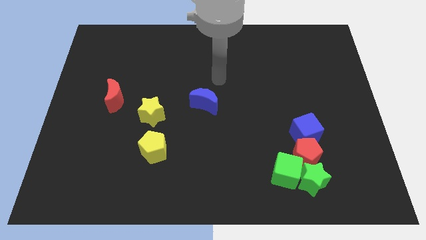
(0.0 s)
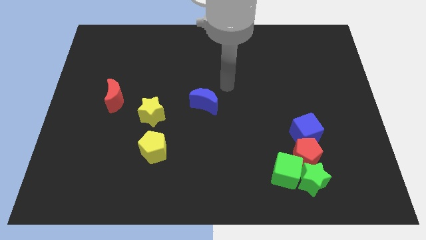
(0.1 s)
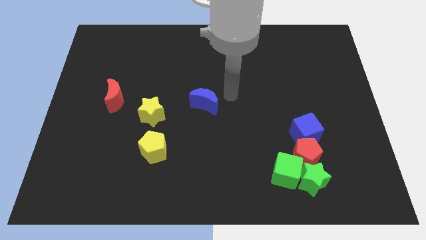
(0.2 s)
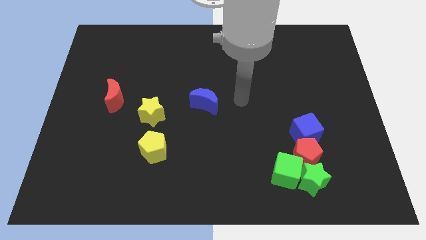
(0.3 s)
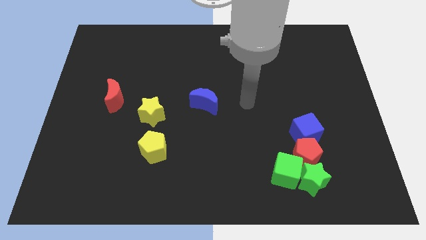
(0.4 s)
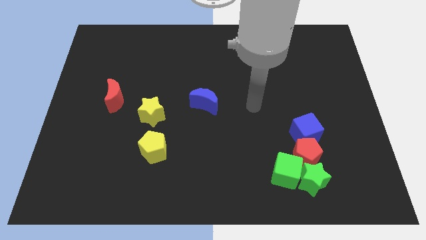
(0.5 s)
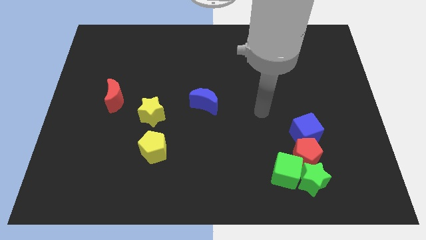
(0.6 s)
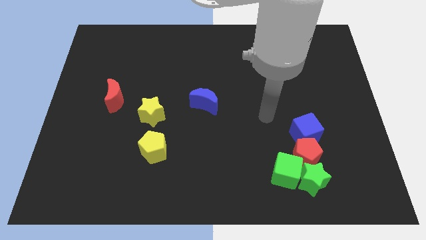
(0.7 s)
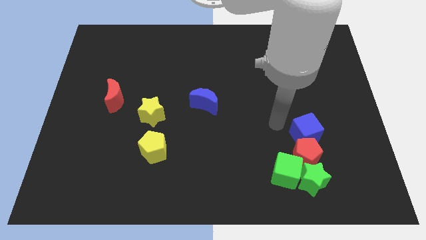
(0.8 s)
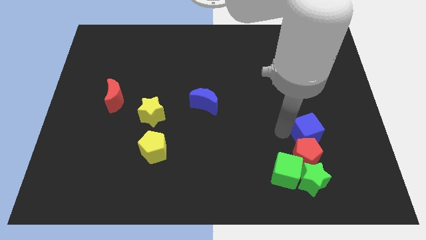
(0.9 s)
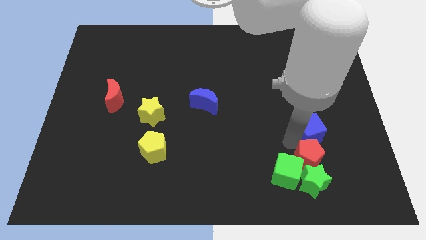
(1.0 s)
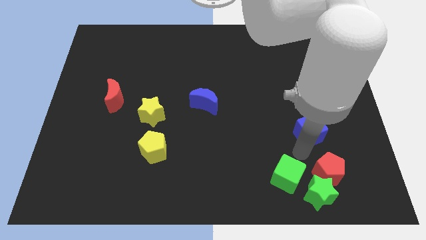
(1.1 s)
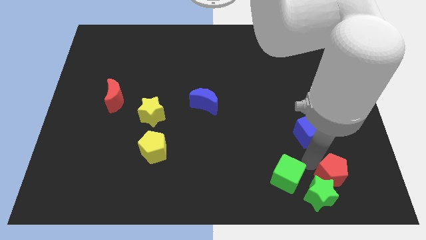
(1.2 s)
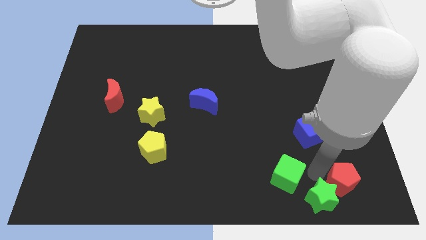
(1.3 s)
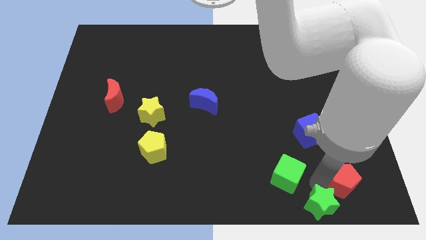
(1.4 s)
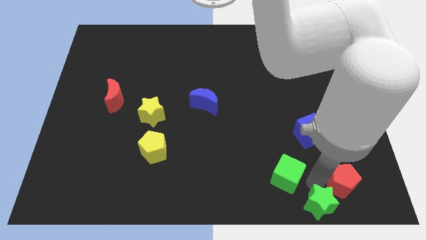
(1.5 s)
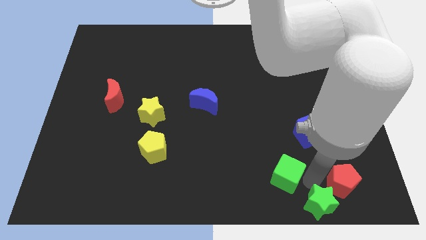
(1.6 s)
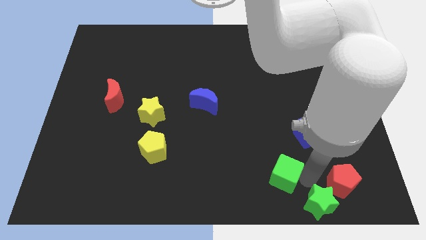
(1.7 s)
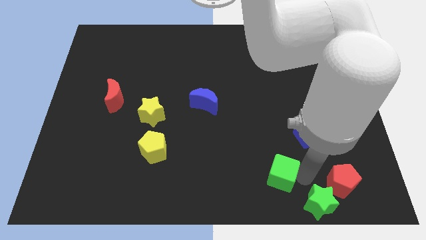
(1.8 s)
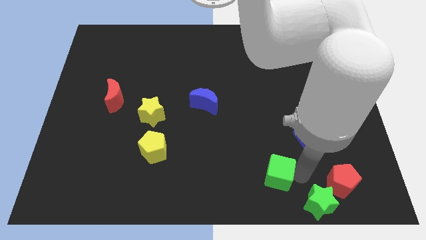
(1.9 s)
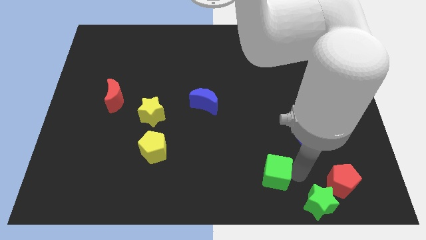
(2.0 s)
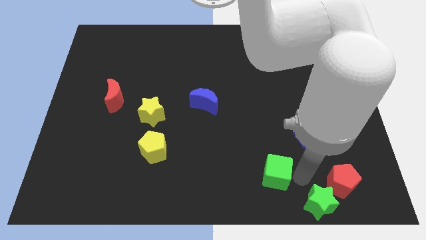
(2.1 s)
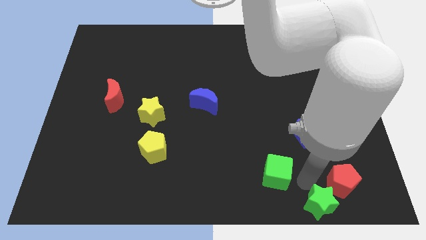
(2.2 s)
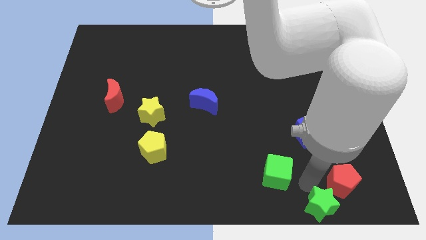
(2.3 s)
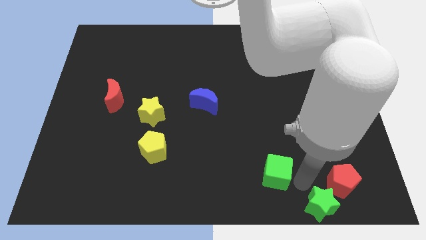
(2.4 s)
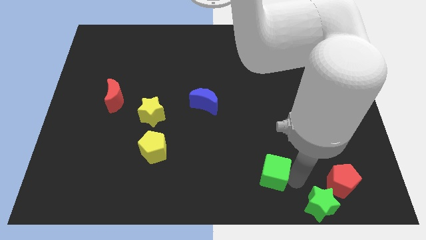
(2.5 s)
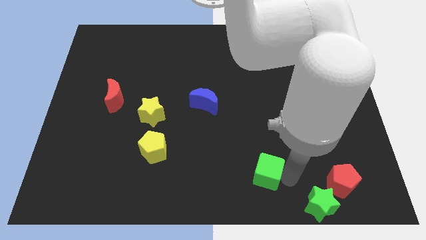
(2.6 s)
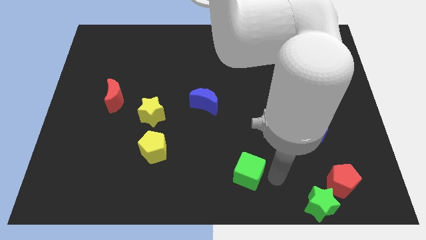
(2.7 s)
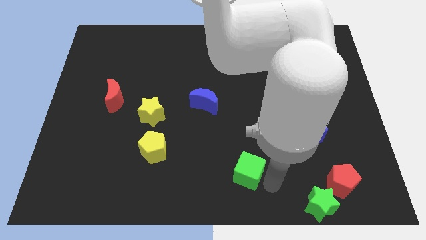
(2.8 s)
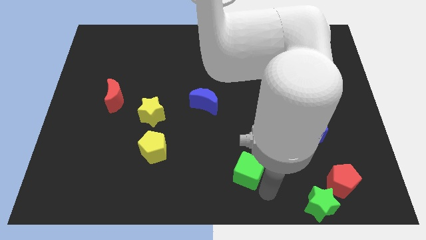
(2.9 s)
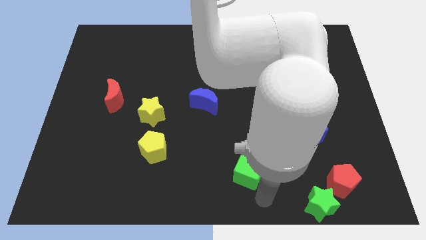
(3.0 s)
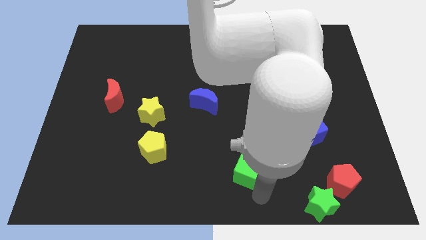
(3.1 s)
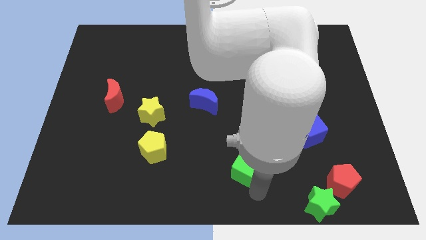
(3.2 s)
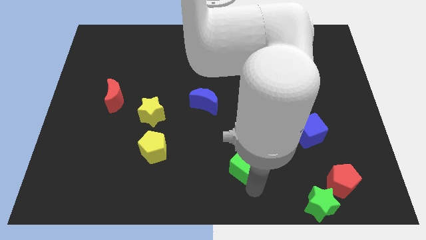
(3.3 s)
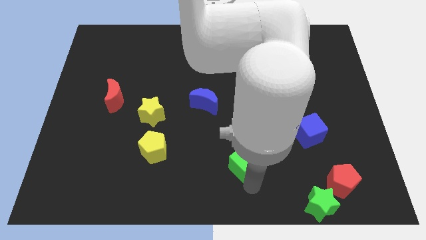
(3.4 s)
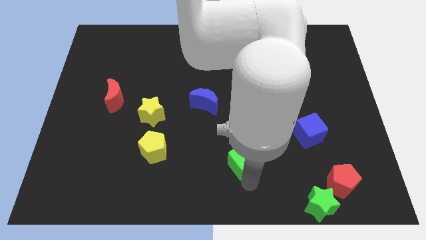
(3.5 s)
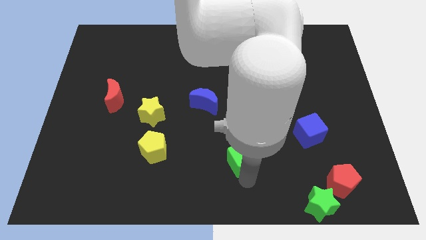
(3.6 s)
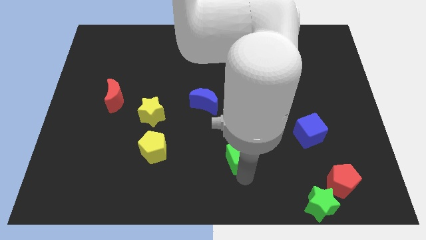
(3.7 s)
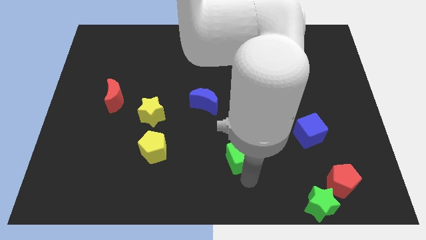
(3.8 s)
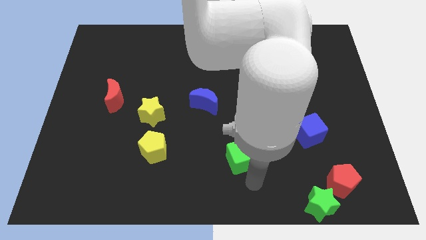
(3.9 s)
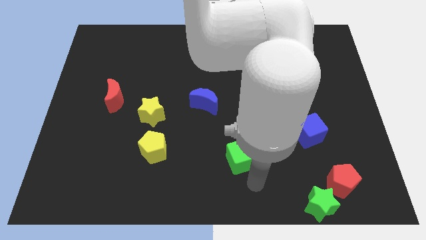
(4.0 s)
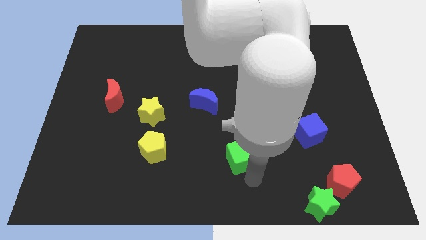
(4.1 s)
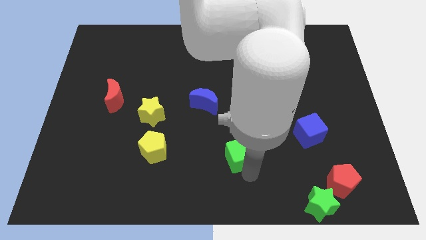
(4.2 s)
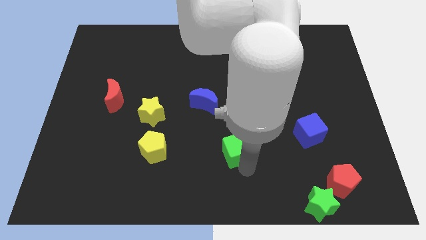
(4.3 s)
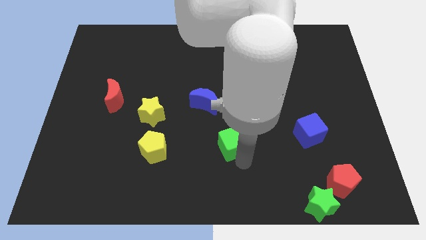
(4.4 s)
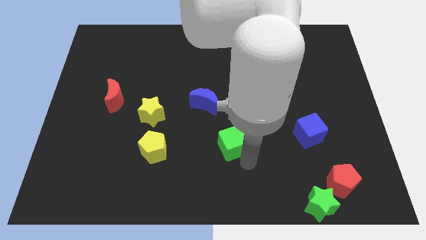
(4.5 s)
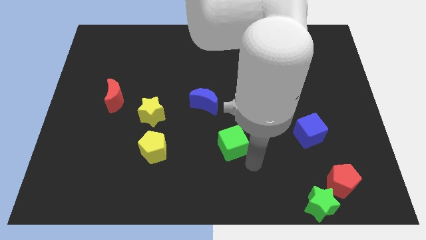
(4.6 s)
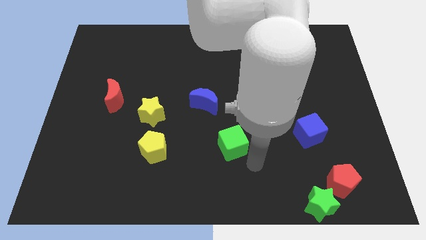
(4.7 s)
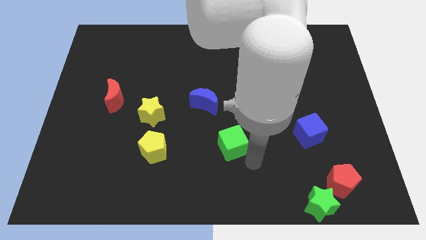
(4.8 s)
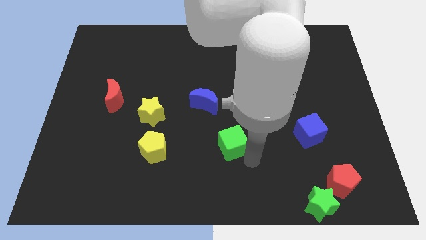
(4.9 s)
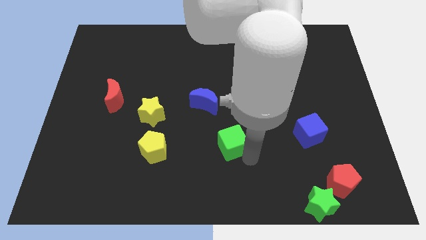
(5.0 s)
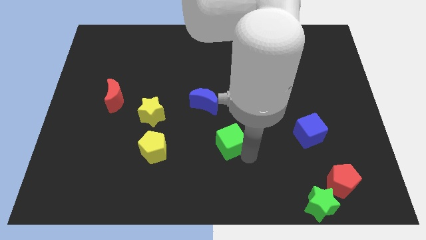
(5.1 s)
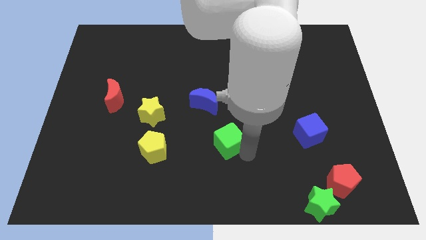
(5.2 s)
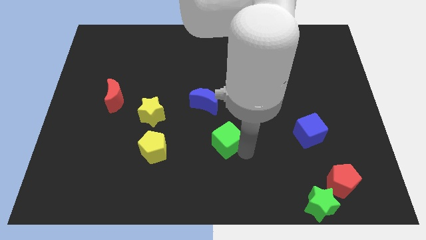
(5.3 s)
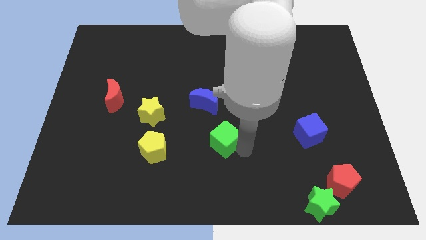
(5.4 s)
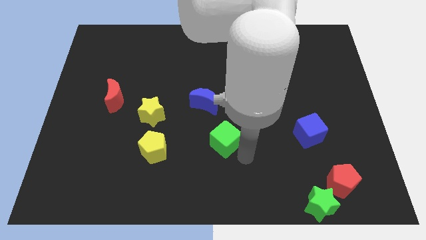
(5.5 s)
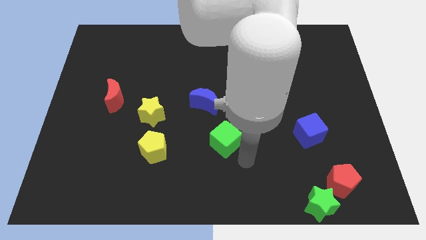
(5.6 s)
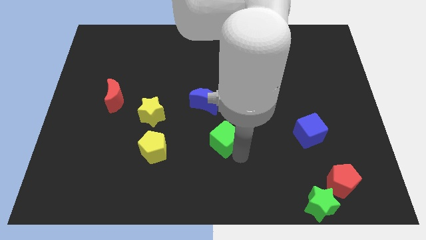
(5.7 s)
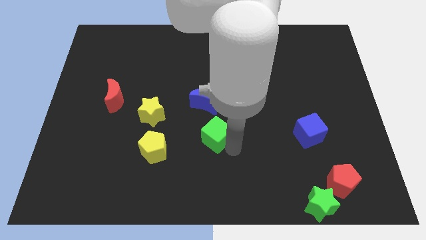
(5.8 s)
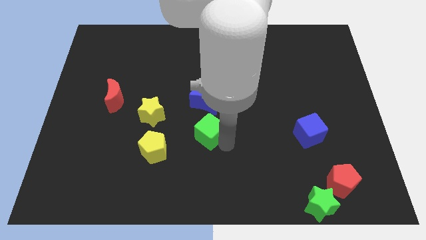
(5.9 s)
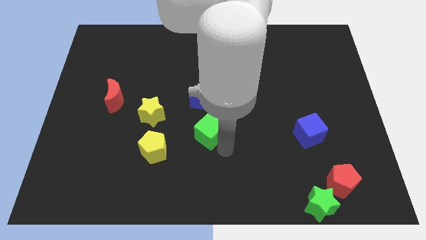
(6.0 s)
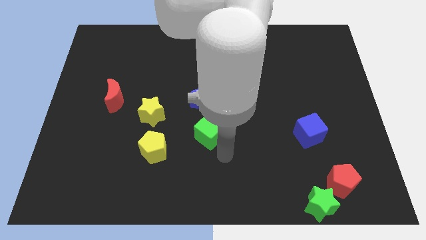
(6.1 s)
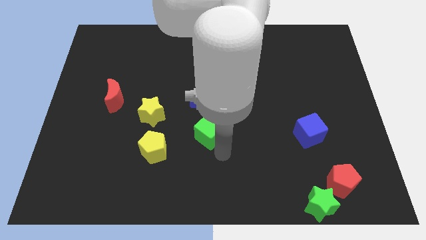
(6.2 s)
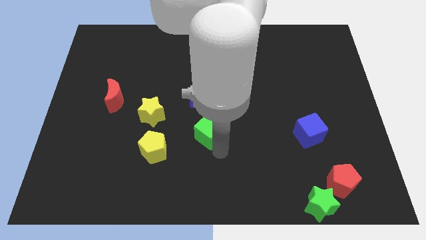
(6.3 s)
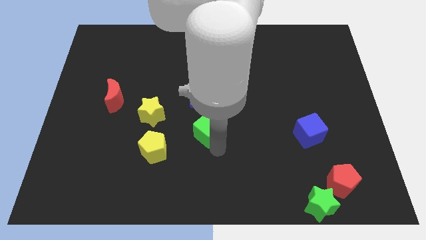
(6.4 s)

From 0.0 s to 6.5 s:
move the green cube right of the yellow star
